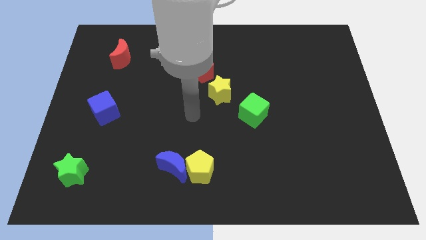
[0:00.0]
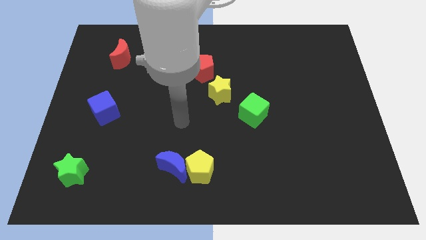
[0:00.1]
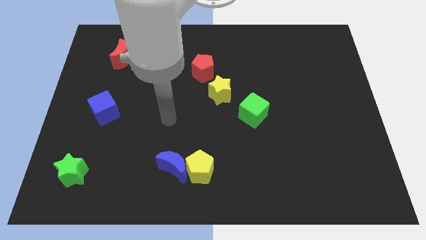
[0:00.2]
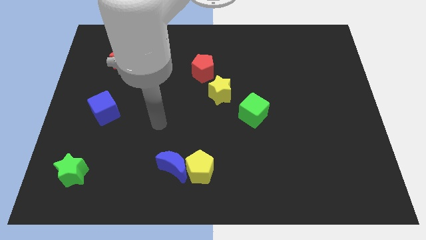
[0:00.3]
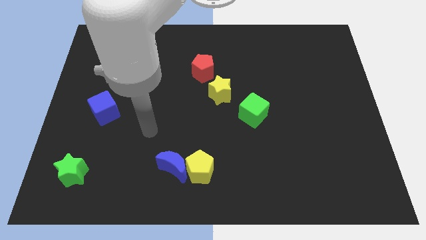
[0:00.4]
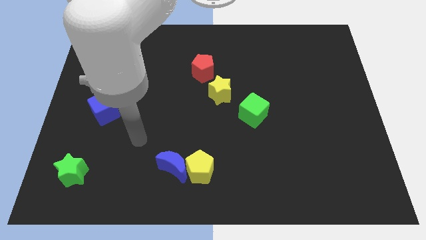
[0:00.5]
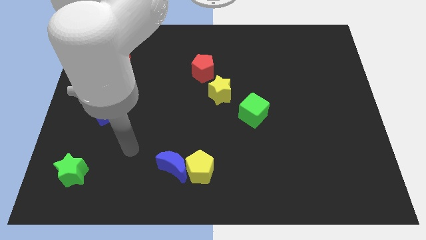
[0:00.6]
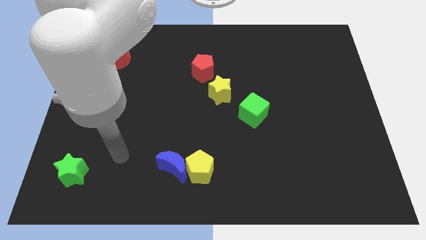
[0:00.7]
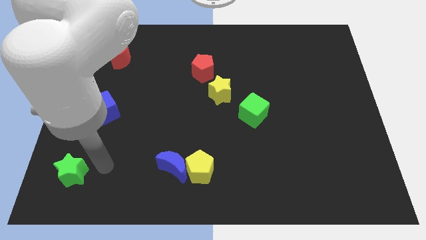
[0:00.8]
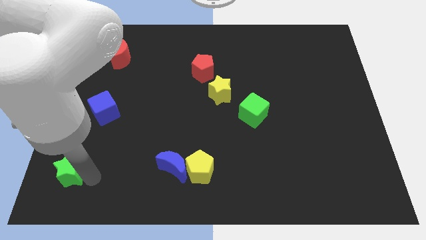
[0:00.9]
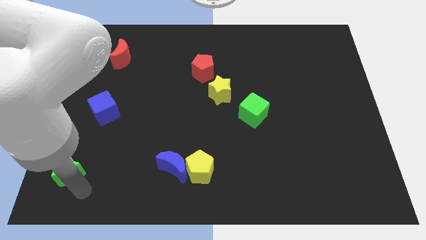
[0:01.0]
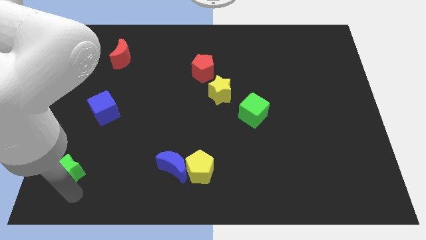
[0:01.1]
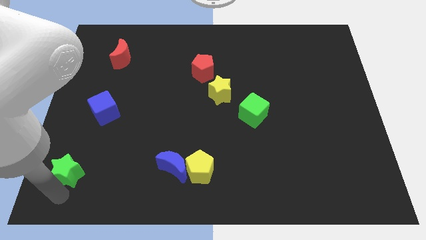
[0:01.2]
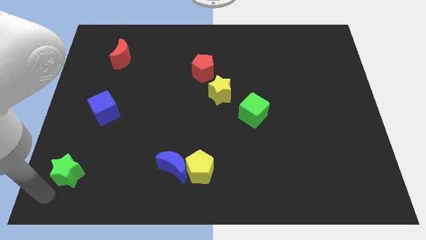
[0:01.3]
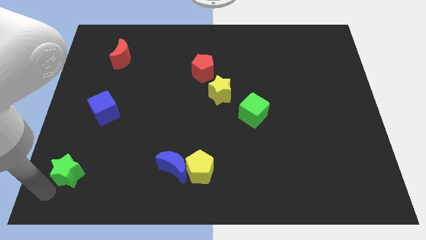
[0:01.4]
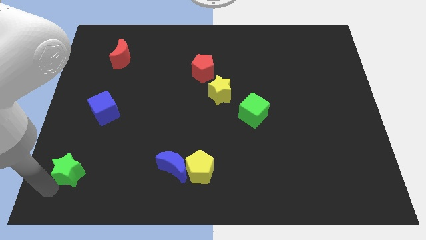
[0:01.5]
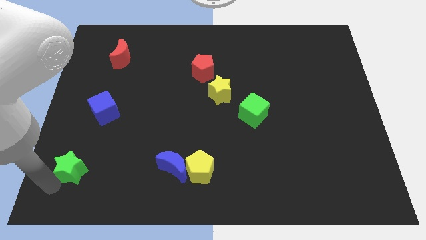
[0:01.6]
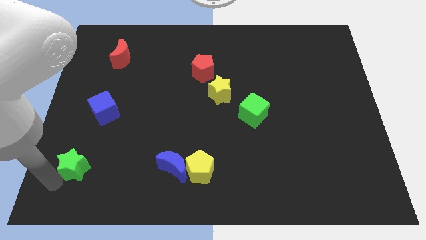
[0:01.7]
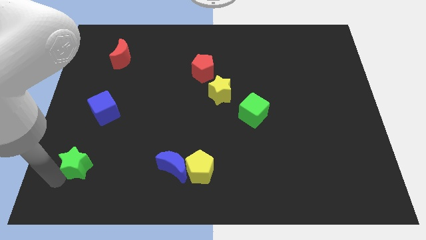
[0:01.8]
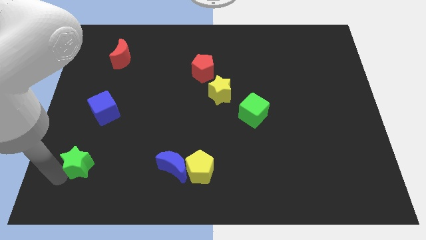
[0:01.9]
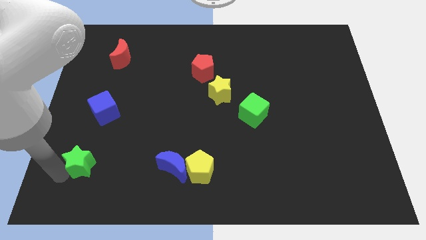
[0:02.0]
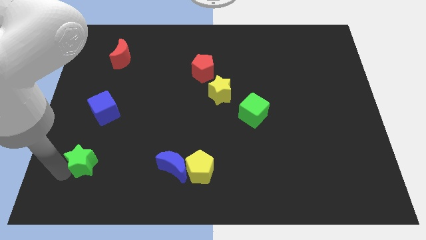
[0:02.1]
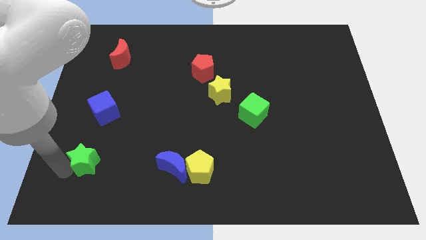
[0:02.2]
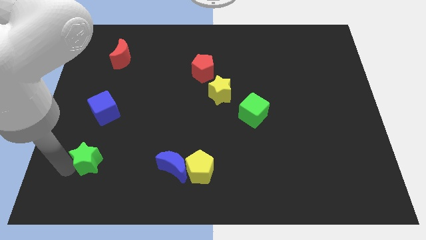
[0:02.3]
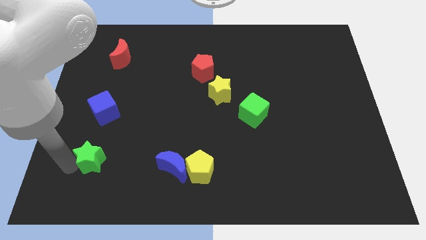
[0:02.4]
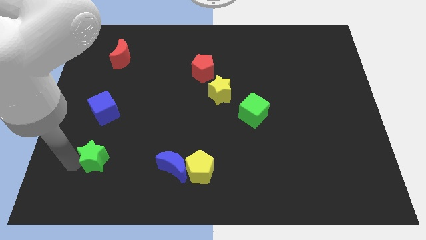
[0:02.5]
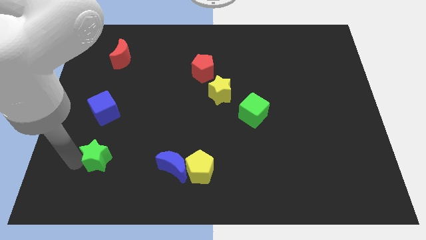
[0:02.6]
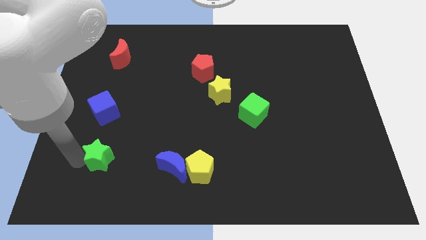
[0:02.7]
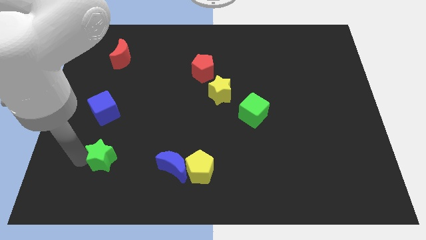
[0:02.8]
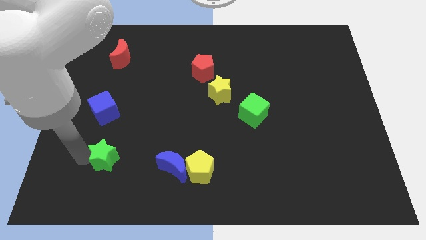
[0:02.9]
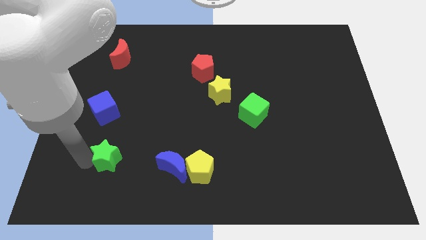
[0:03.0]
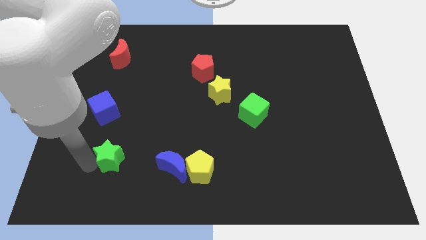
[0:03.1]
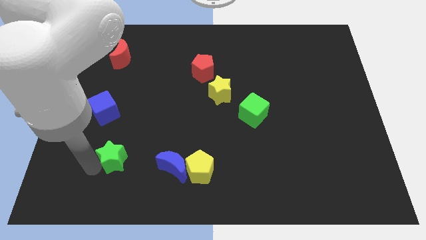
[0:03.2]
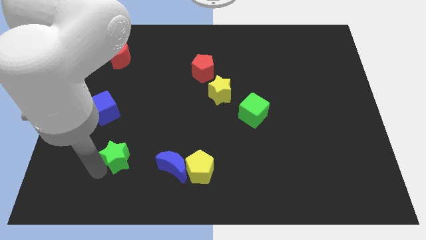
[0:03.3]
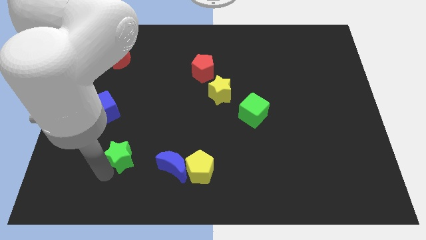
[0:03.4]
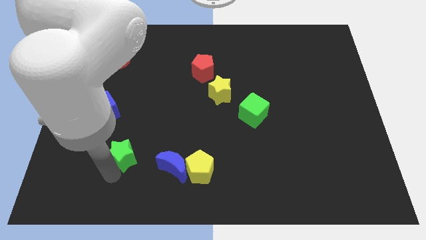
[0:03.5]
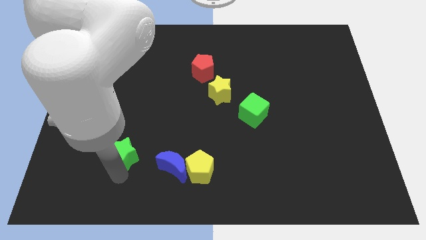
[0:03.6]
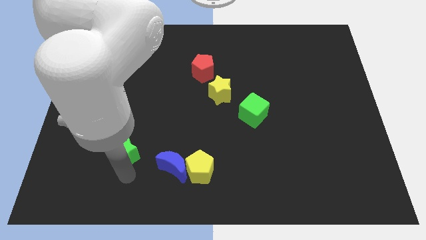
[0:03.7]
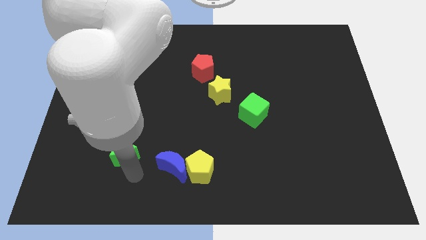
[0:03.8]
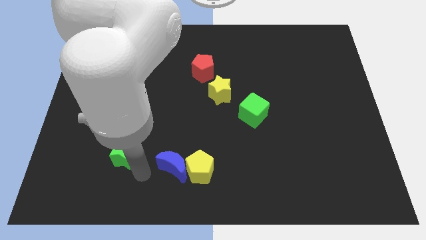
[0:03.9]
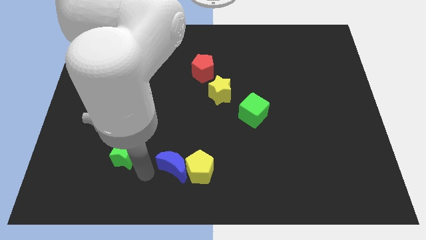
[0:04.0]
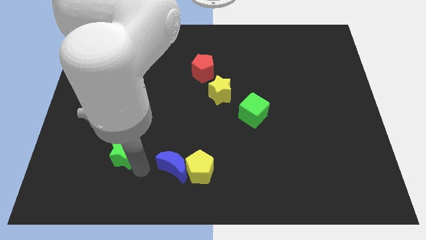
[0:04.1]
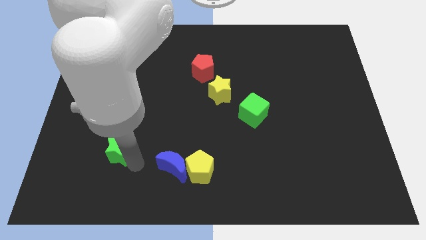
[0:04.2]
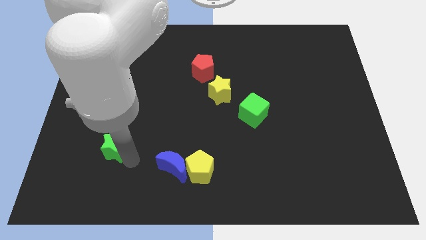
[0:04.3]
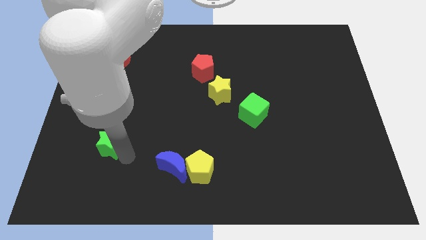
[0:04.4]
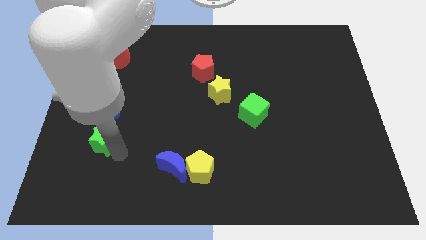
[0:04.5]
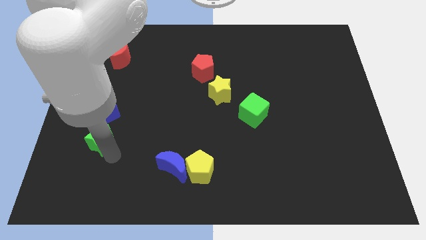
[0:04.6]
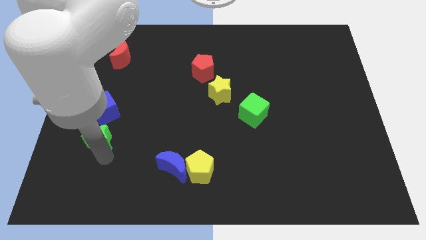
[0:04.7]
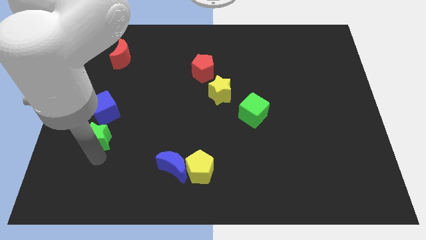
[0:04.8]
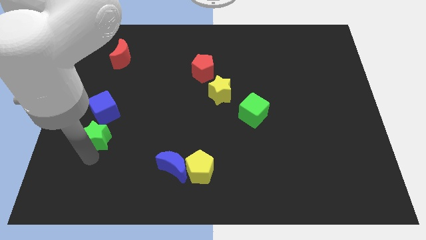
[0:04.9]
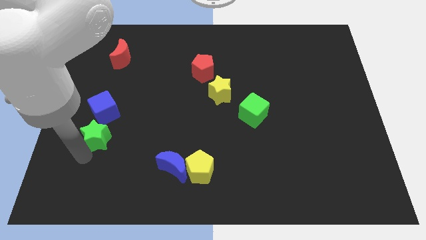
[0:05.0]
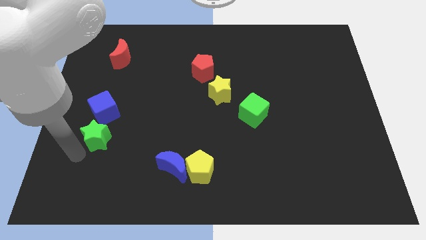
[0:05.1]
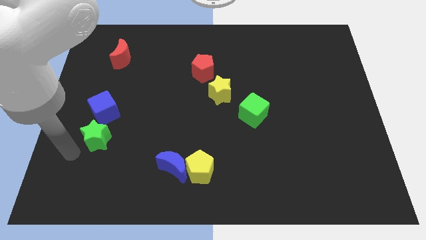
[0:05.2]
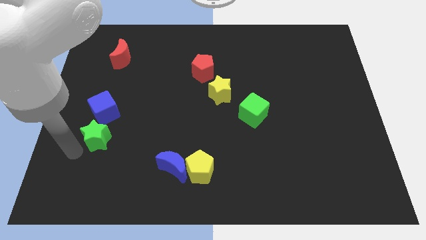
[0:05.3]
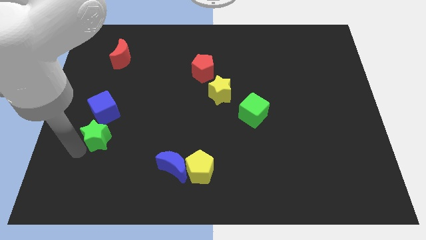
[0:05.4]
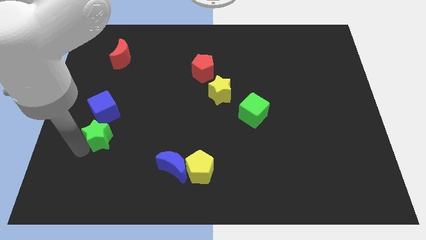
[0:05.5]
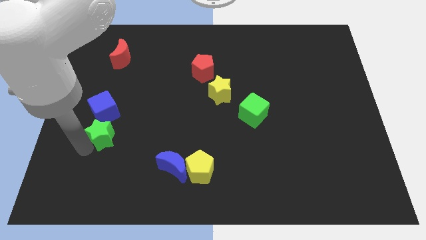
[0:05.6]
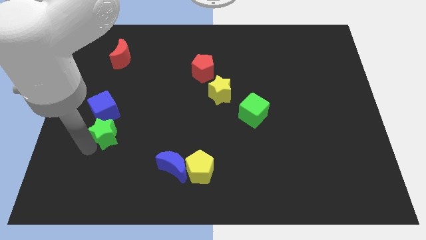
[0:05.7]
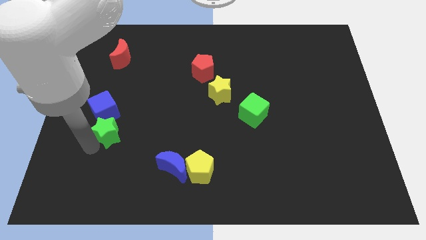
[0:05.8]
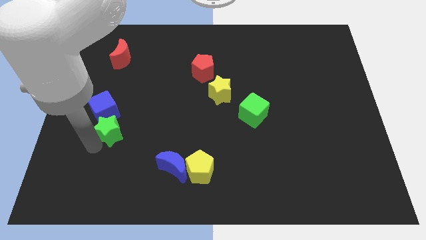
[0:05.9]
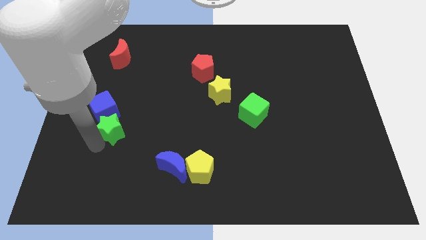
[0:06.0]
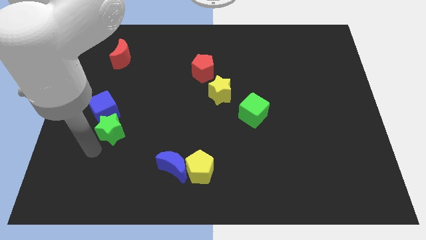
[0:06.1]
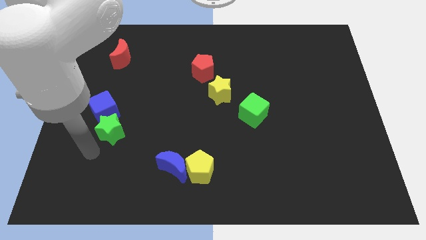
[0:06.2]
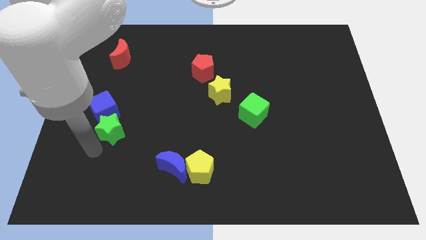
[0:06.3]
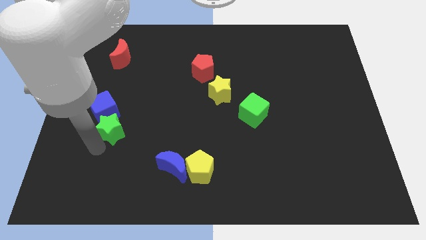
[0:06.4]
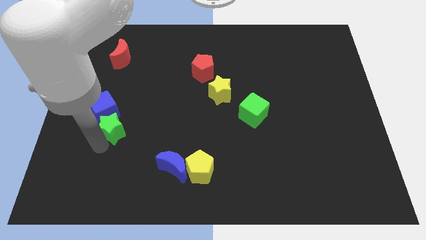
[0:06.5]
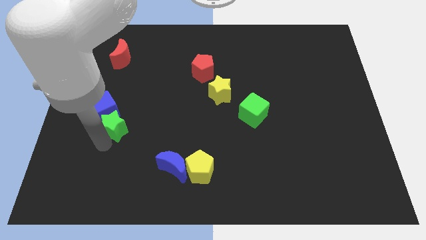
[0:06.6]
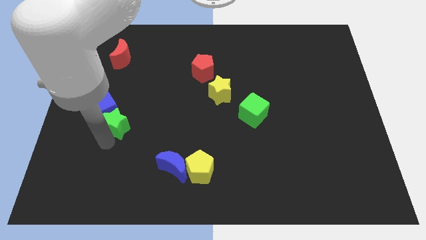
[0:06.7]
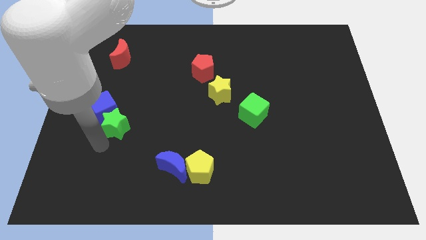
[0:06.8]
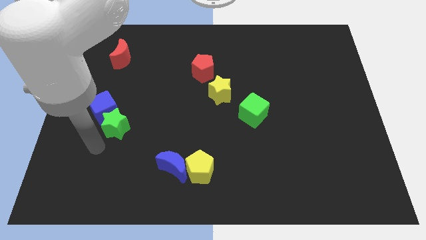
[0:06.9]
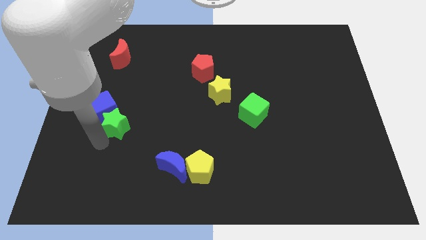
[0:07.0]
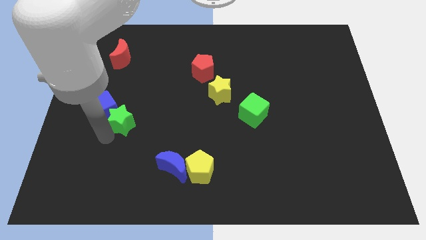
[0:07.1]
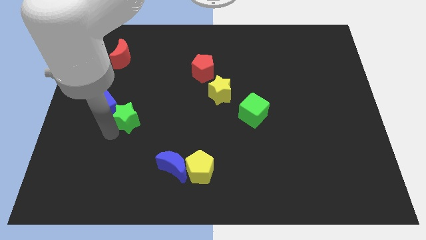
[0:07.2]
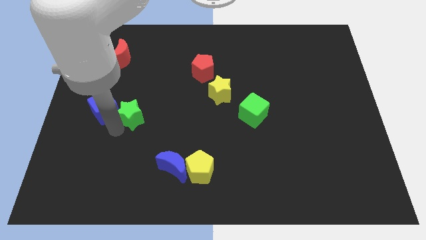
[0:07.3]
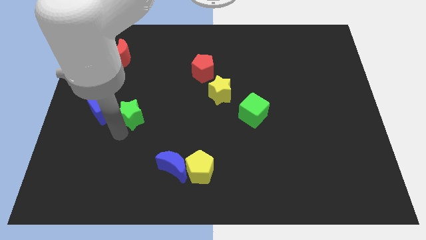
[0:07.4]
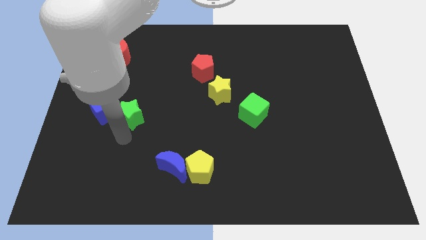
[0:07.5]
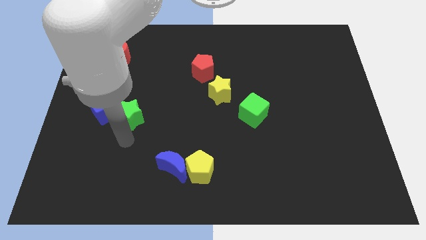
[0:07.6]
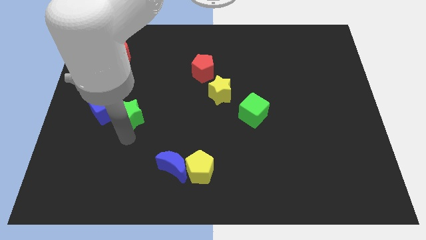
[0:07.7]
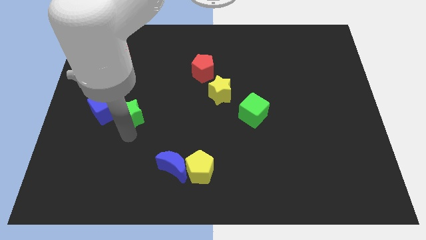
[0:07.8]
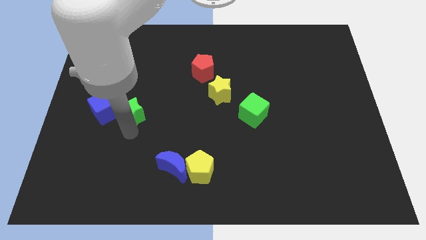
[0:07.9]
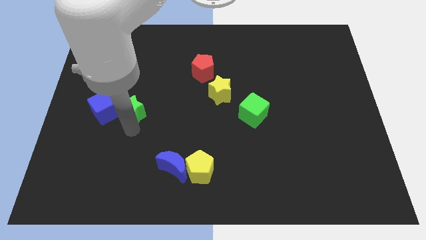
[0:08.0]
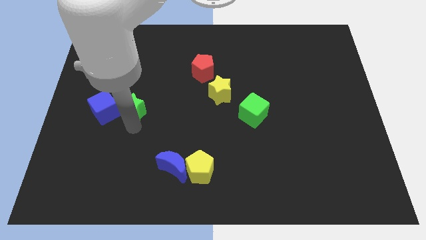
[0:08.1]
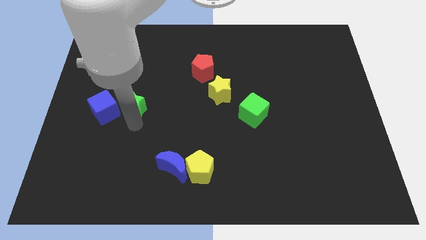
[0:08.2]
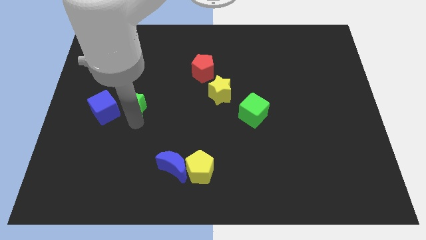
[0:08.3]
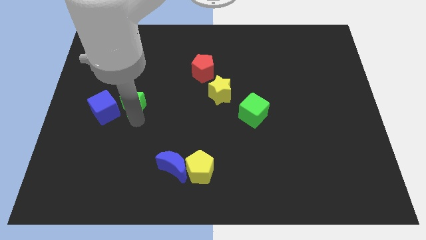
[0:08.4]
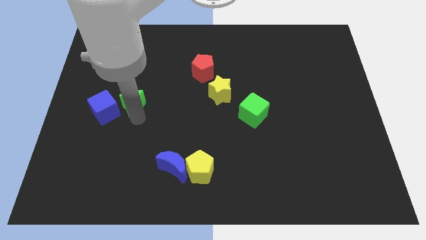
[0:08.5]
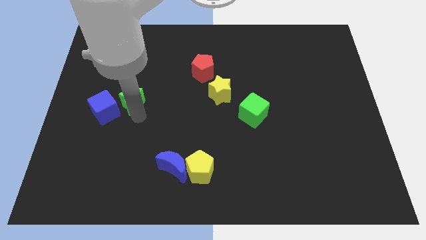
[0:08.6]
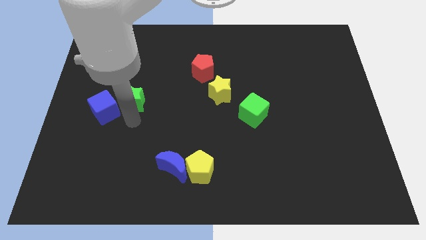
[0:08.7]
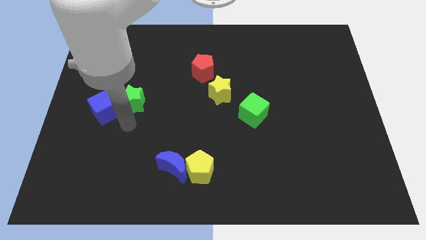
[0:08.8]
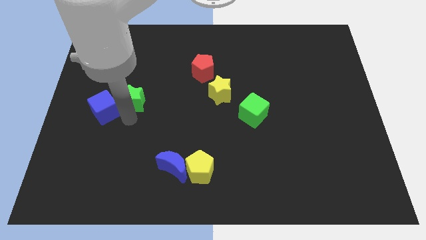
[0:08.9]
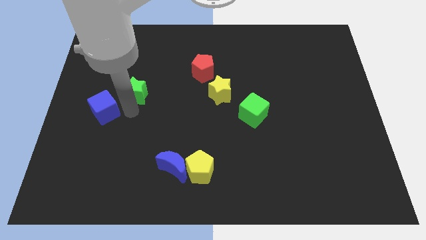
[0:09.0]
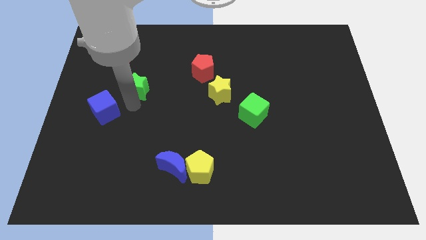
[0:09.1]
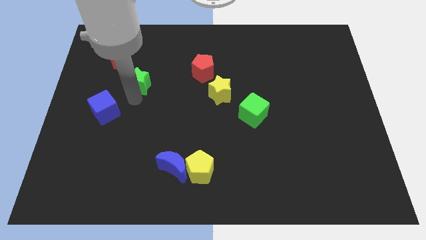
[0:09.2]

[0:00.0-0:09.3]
slide the green star diagonally down and to the right of the red moon
